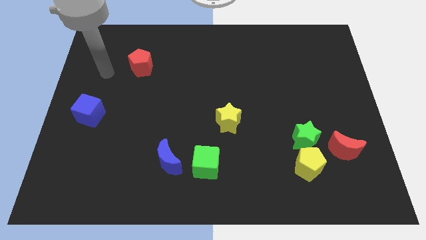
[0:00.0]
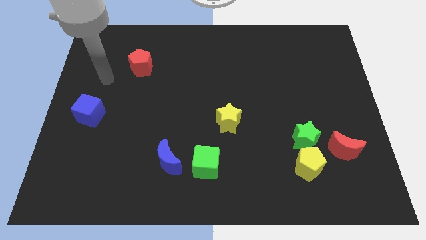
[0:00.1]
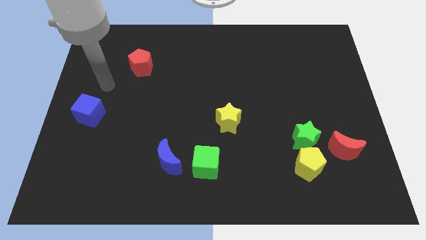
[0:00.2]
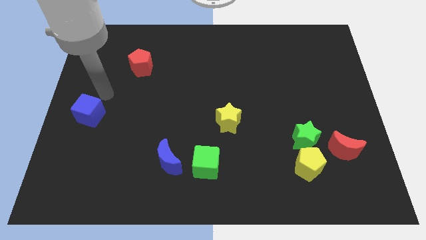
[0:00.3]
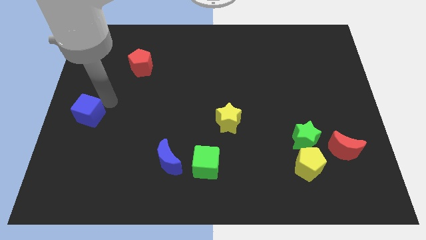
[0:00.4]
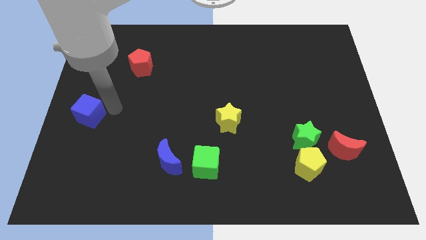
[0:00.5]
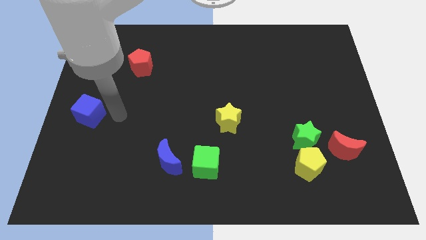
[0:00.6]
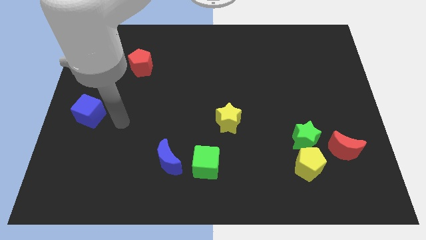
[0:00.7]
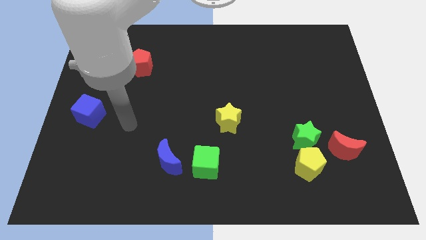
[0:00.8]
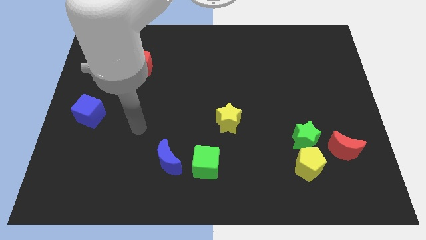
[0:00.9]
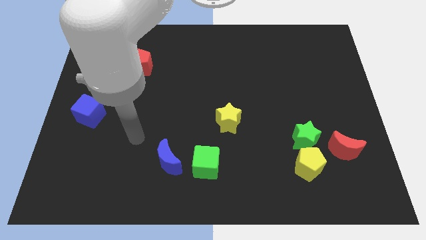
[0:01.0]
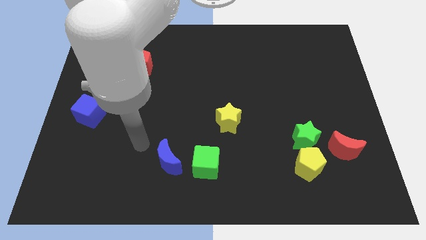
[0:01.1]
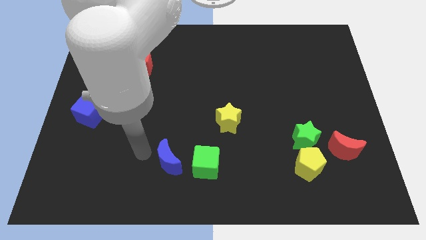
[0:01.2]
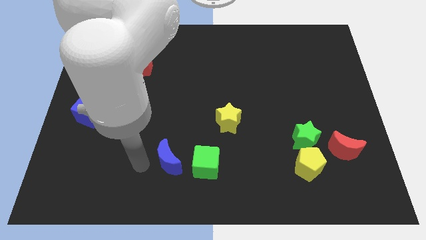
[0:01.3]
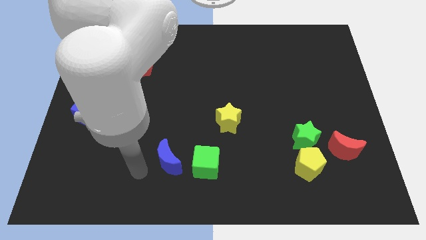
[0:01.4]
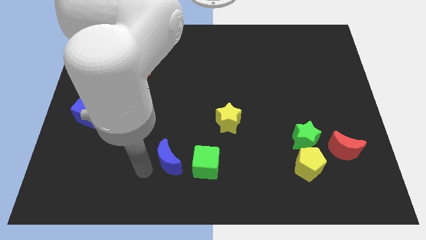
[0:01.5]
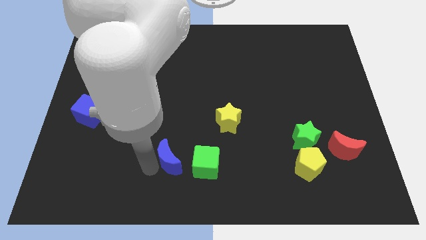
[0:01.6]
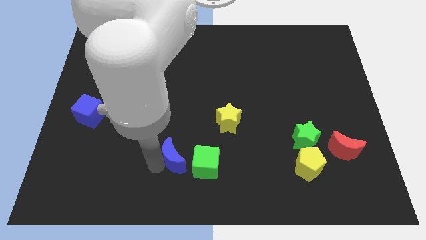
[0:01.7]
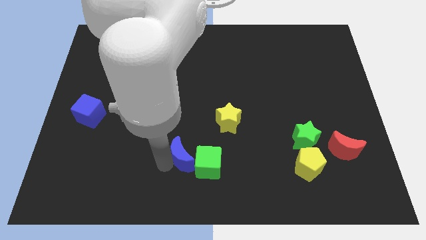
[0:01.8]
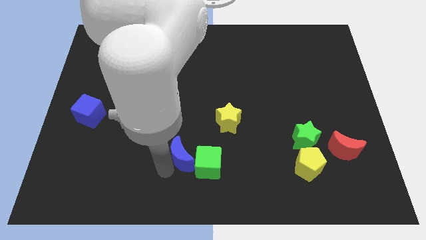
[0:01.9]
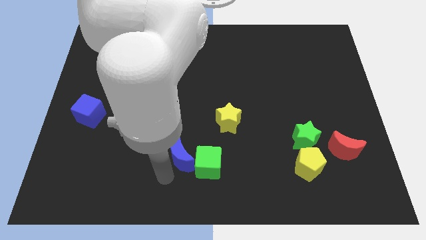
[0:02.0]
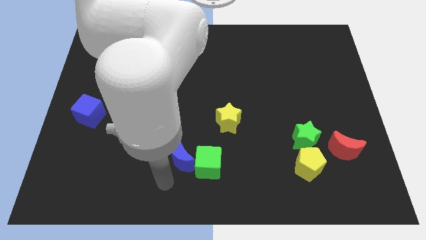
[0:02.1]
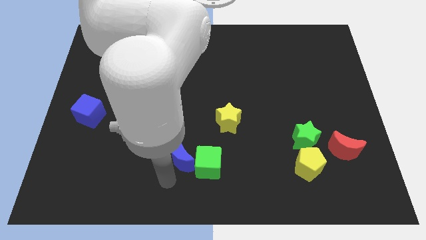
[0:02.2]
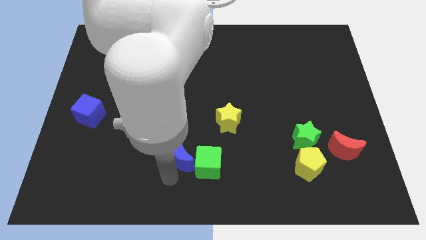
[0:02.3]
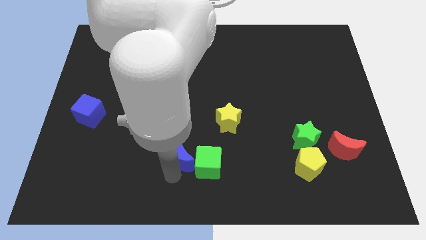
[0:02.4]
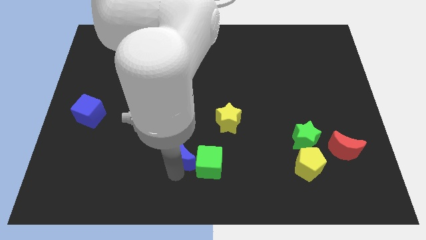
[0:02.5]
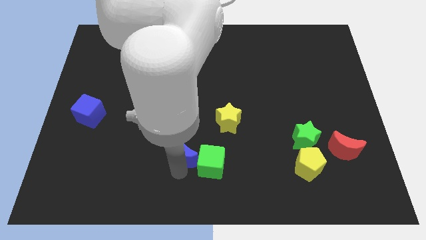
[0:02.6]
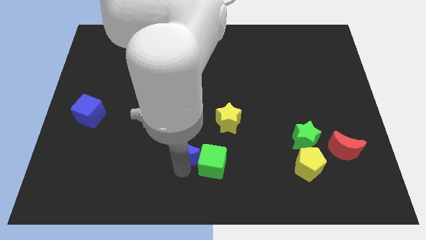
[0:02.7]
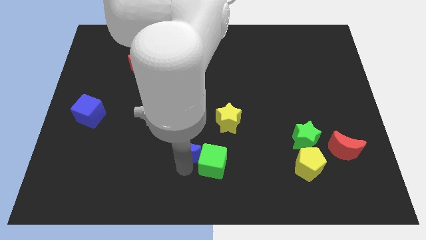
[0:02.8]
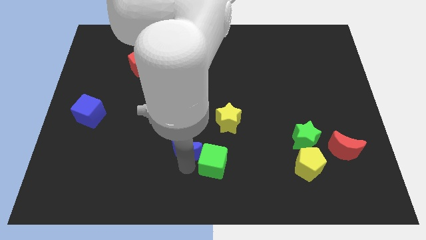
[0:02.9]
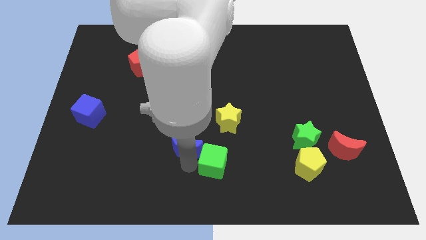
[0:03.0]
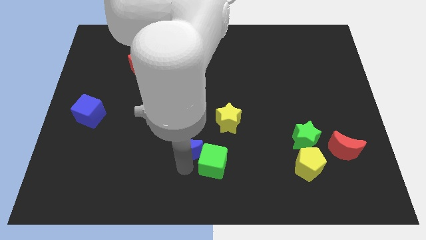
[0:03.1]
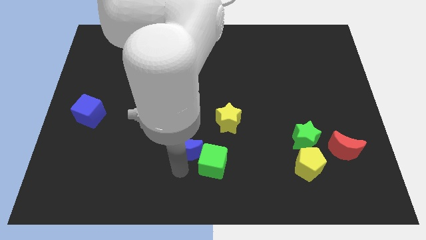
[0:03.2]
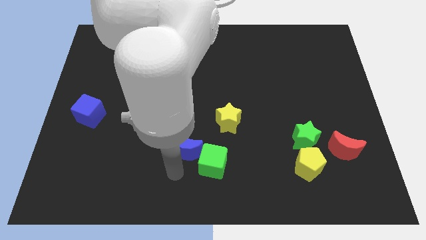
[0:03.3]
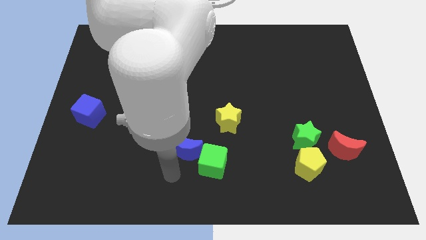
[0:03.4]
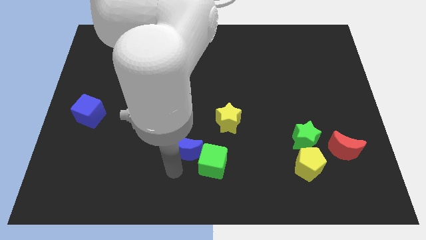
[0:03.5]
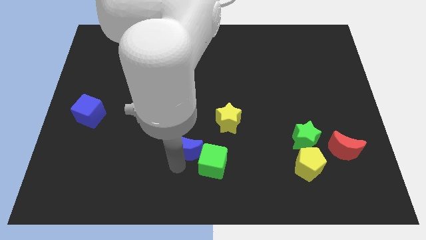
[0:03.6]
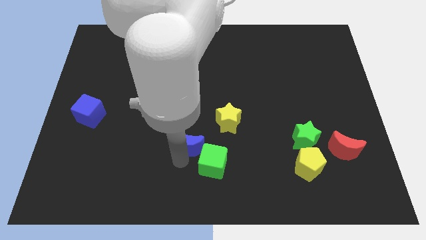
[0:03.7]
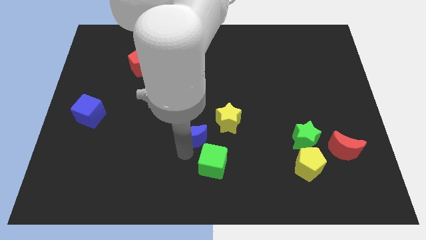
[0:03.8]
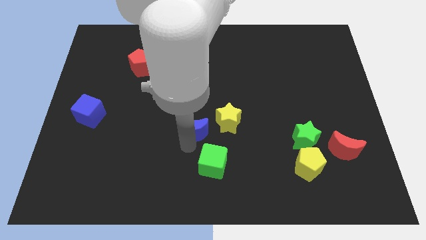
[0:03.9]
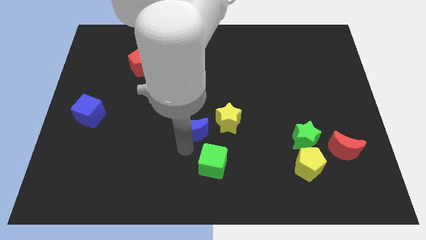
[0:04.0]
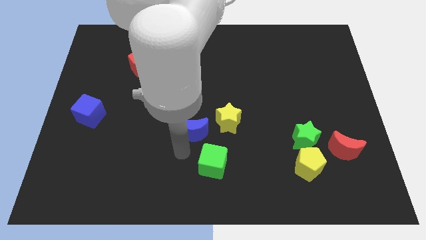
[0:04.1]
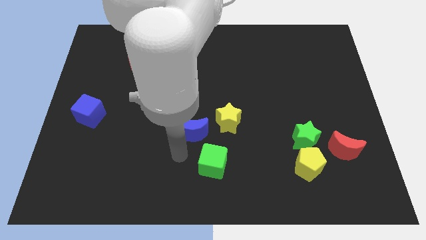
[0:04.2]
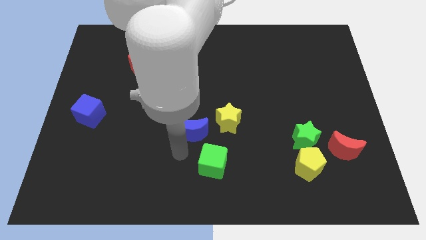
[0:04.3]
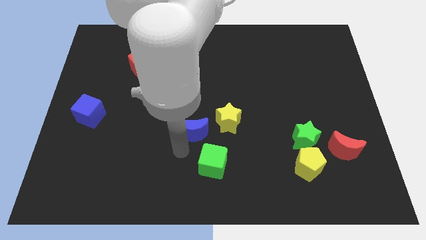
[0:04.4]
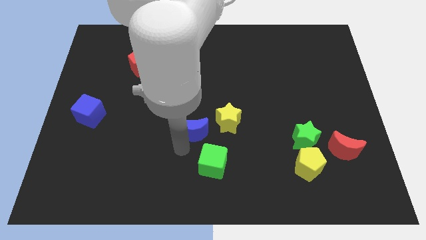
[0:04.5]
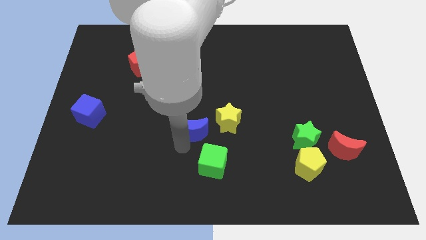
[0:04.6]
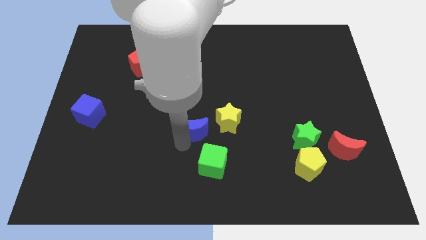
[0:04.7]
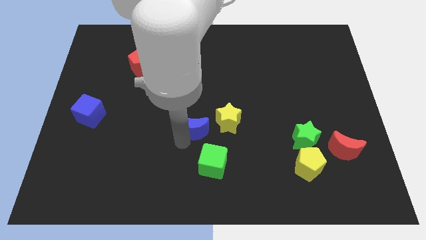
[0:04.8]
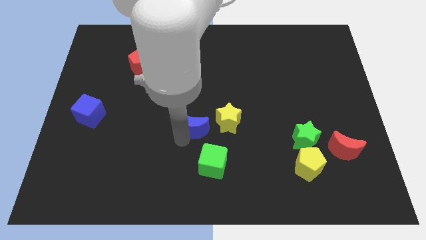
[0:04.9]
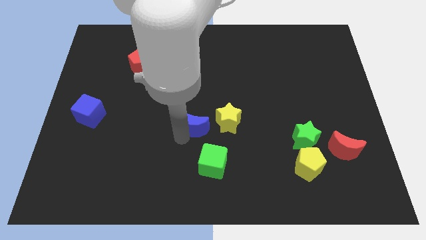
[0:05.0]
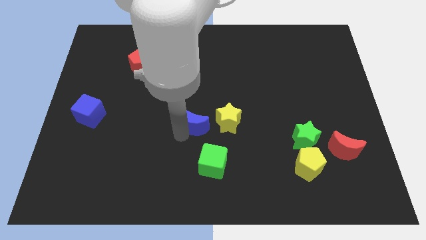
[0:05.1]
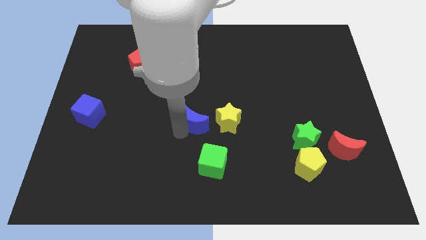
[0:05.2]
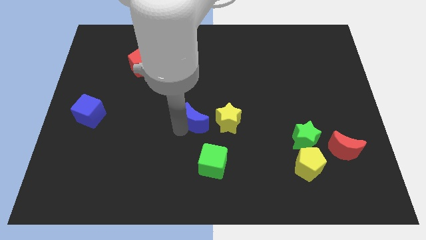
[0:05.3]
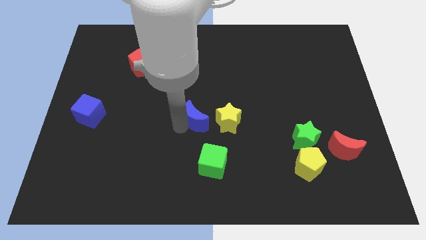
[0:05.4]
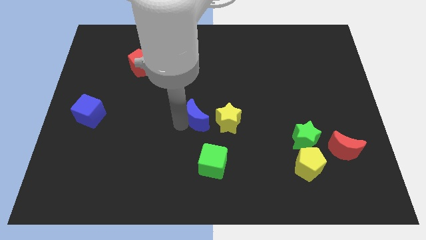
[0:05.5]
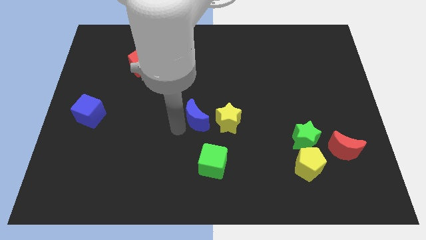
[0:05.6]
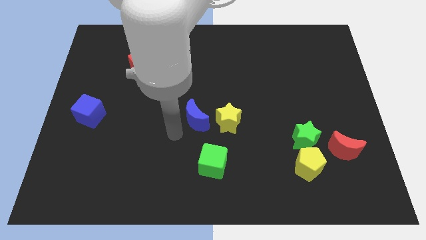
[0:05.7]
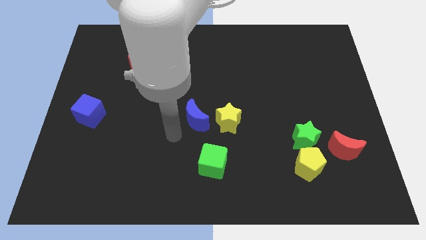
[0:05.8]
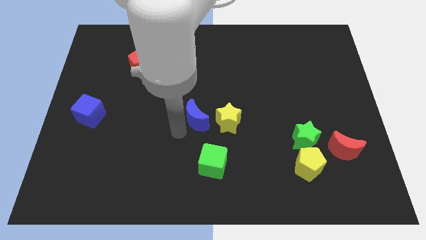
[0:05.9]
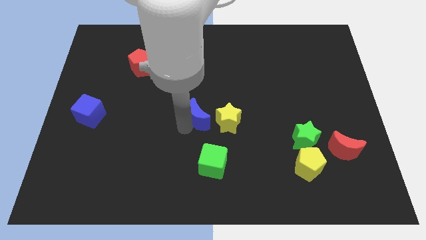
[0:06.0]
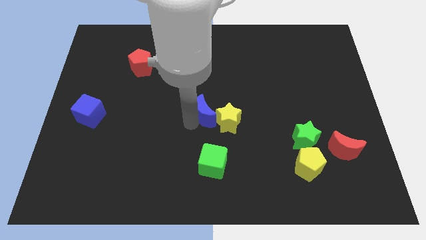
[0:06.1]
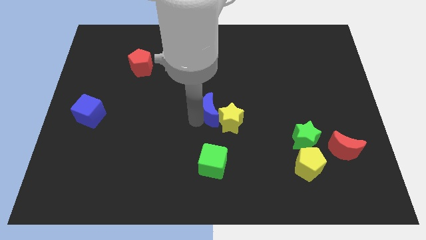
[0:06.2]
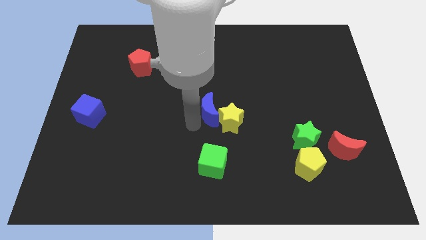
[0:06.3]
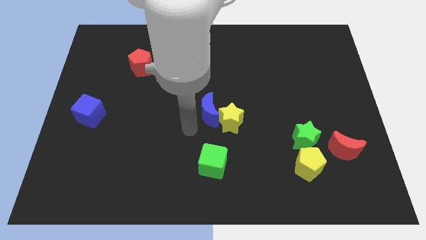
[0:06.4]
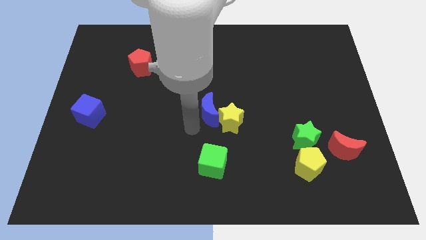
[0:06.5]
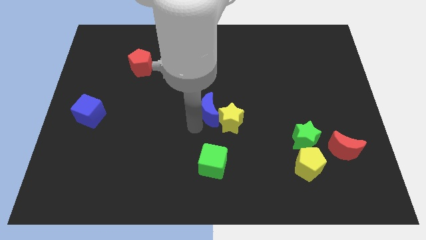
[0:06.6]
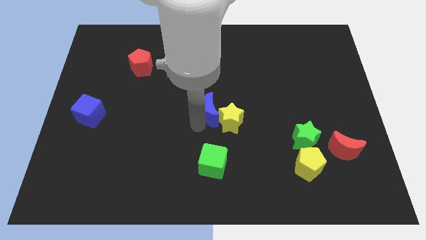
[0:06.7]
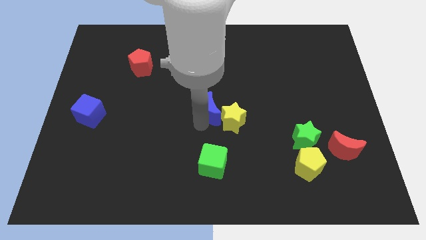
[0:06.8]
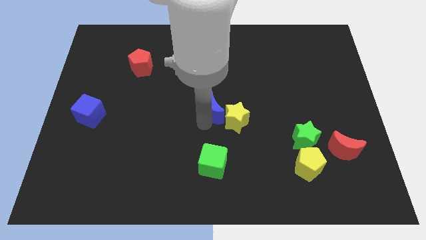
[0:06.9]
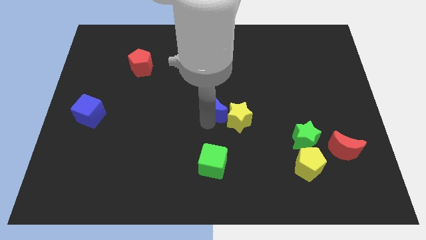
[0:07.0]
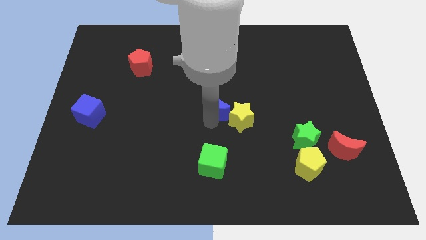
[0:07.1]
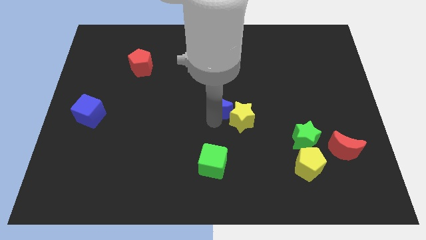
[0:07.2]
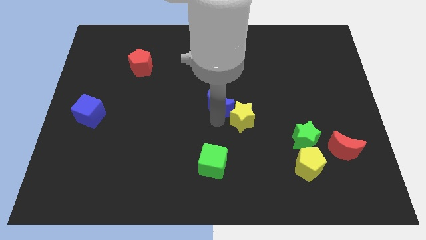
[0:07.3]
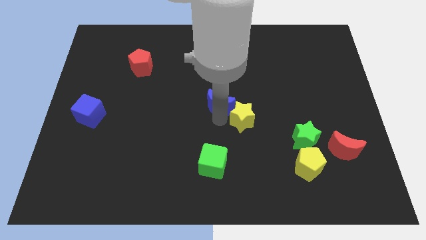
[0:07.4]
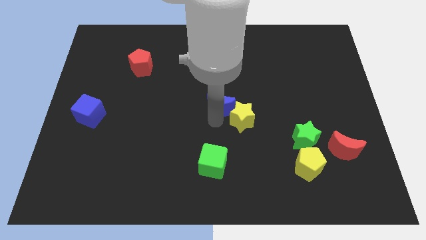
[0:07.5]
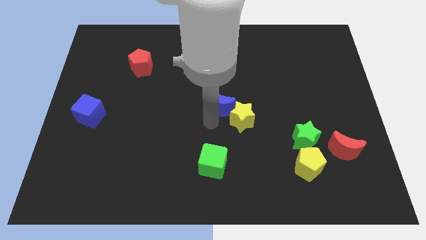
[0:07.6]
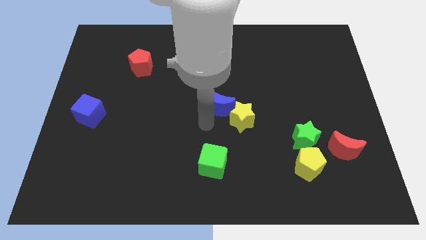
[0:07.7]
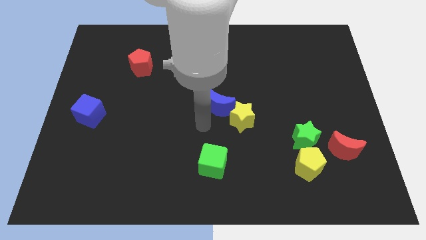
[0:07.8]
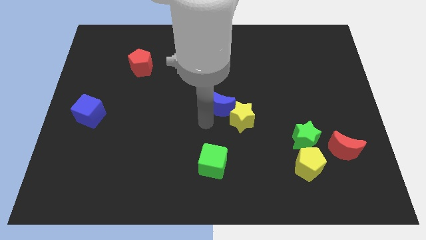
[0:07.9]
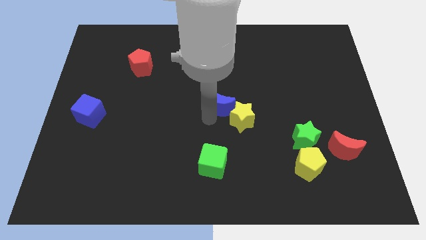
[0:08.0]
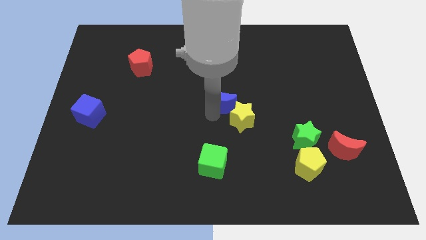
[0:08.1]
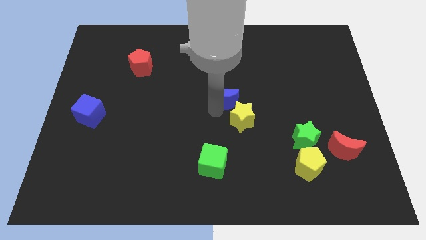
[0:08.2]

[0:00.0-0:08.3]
slide the blue moon up and to the right
